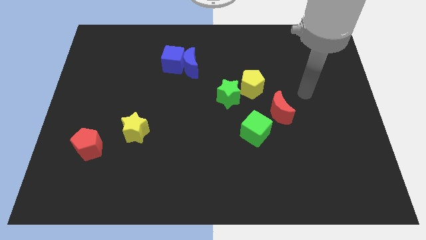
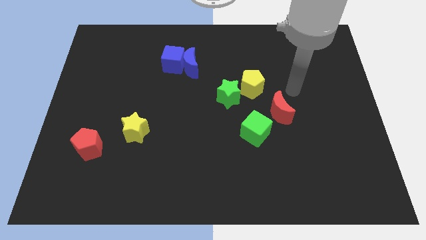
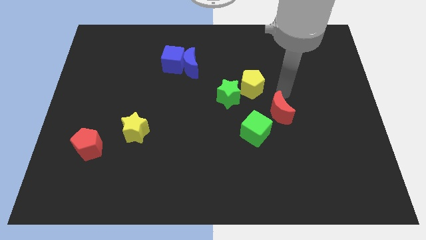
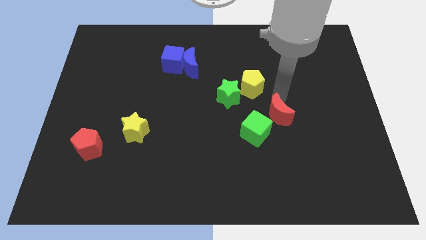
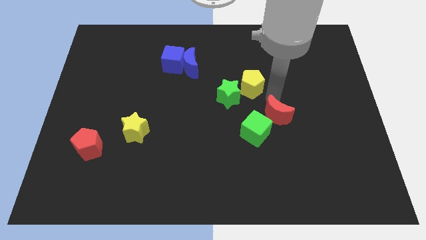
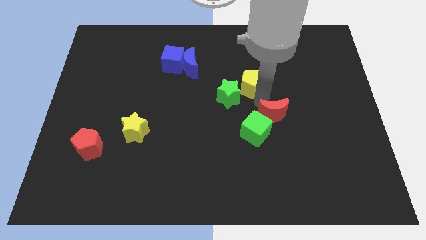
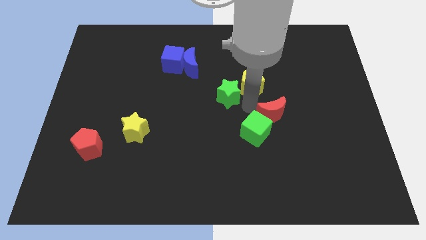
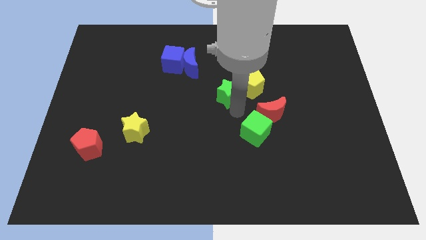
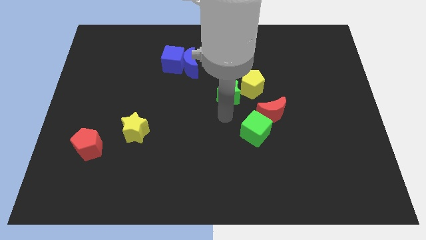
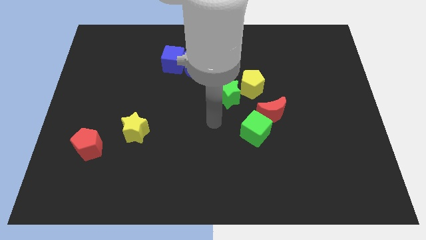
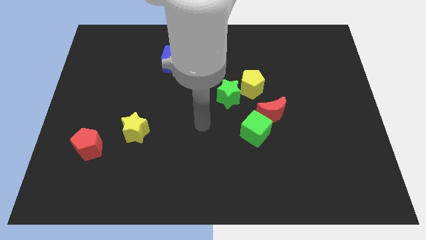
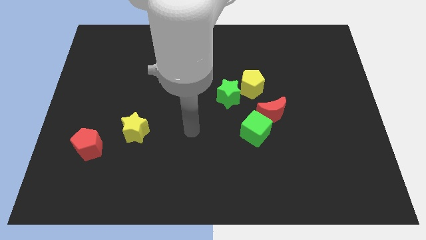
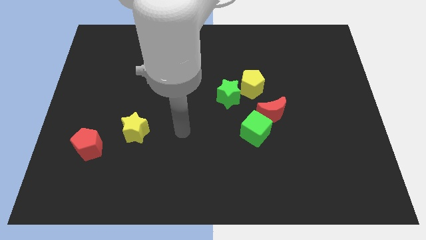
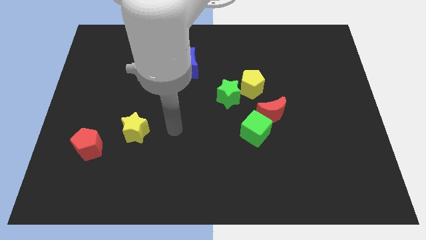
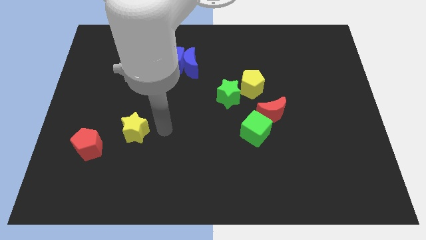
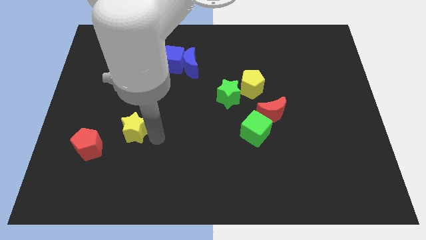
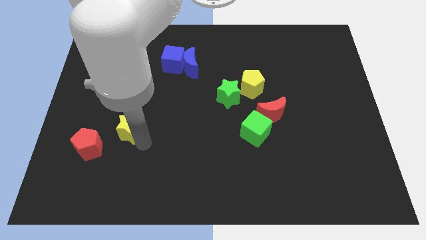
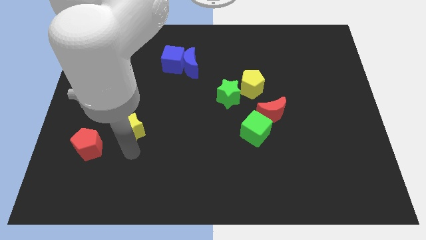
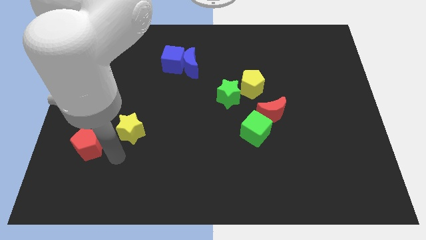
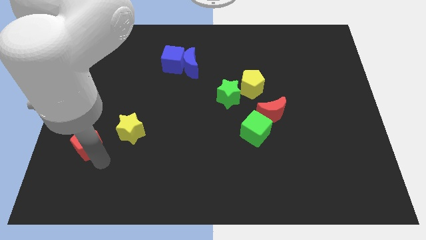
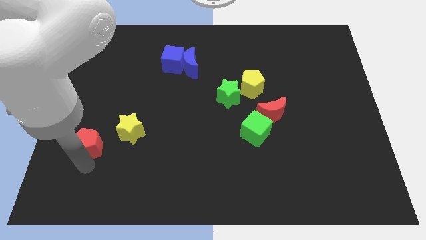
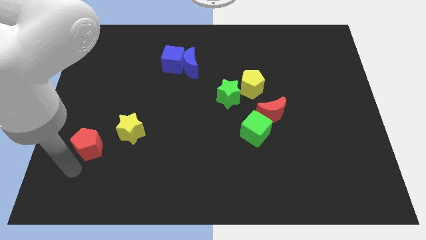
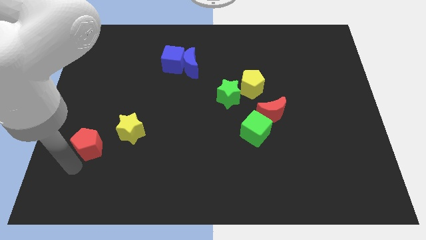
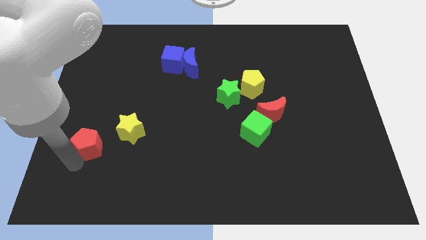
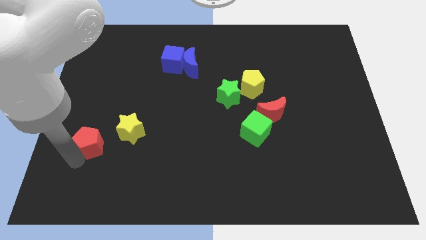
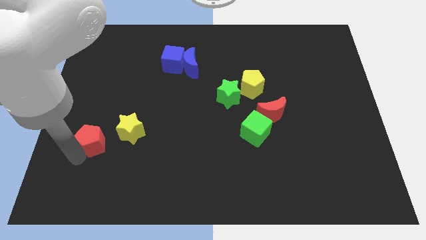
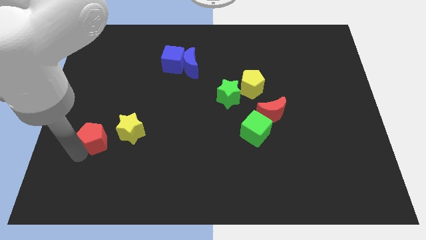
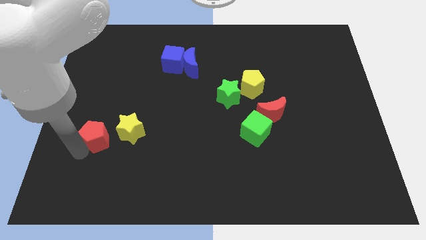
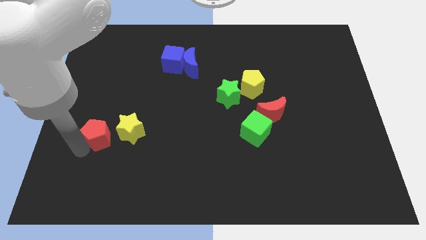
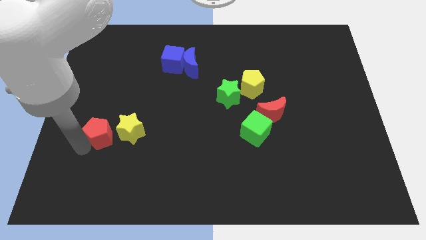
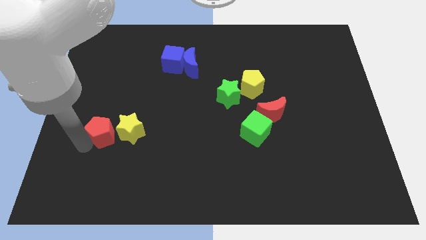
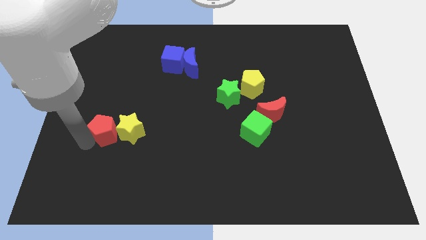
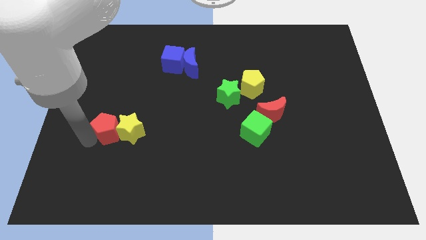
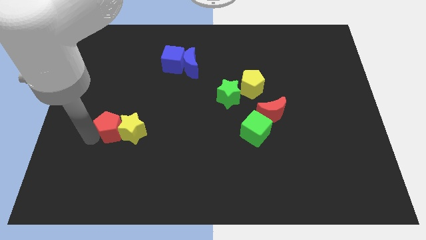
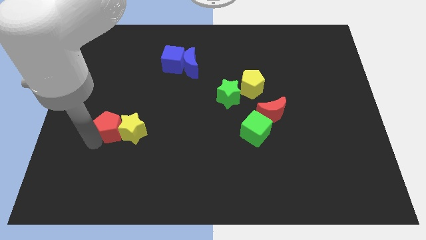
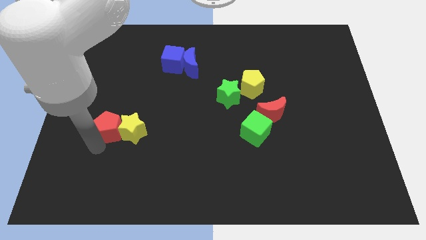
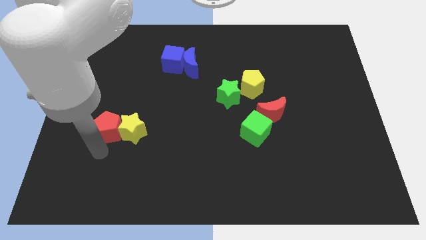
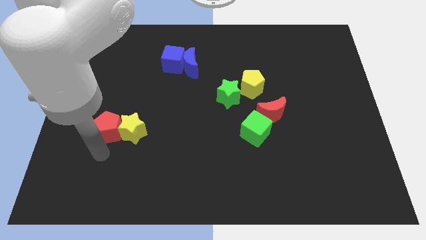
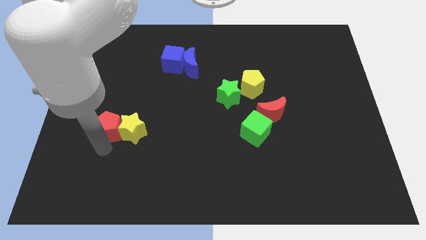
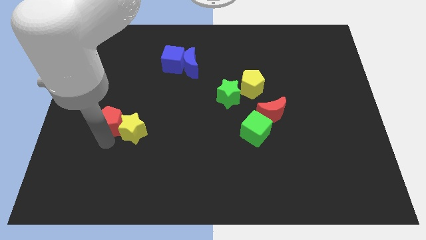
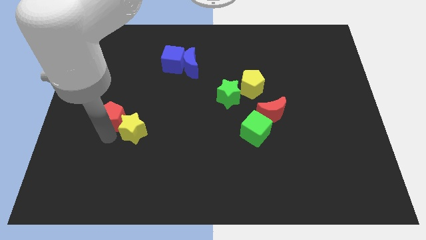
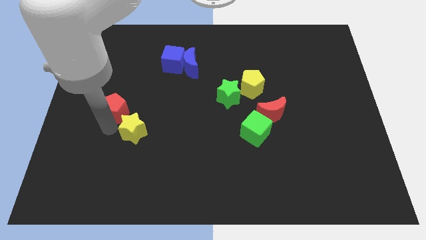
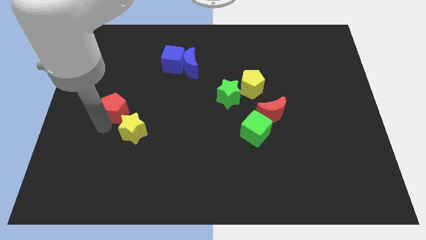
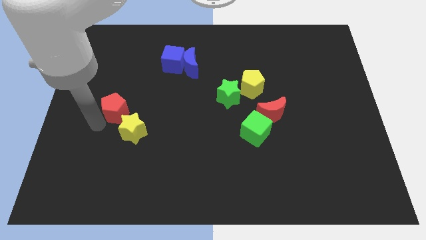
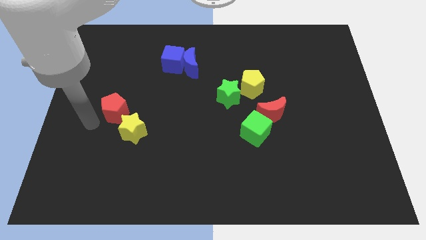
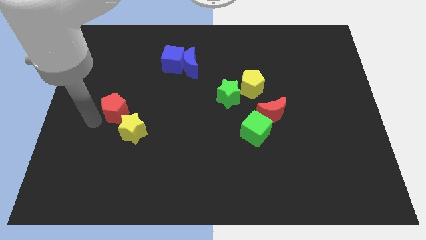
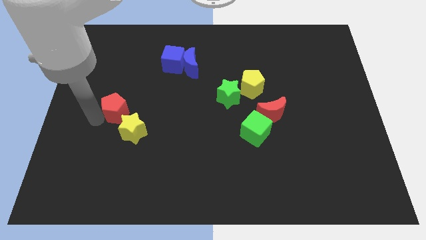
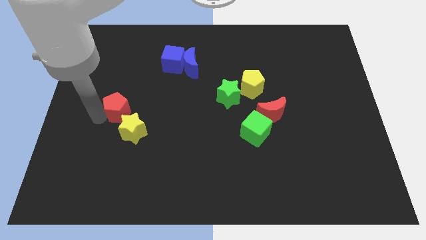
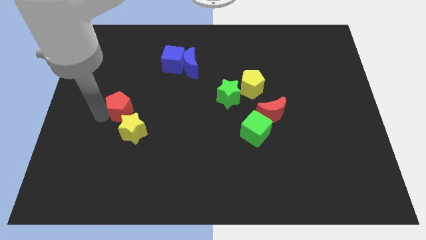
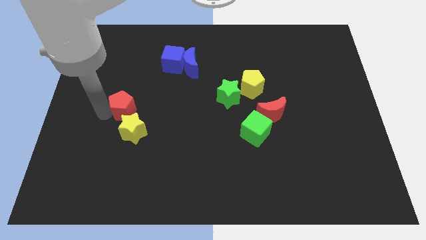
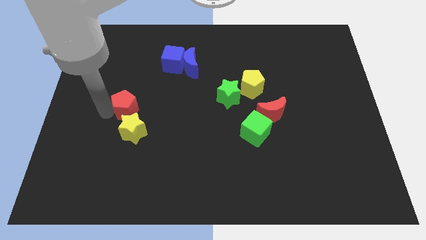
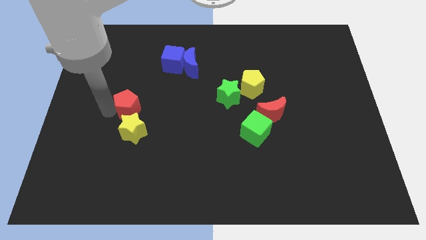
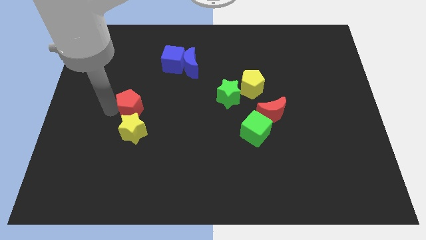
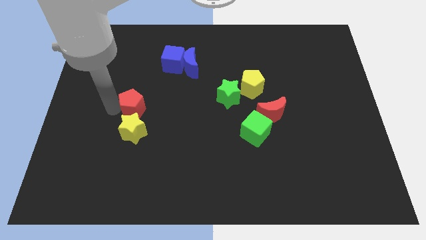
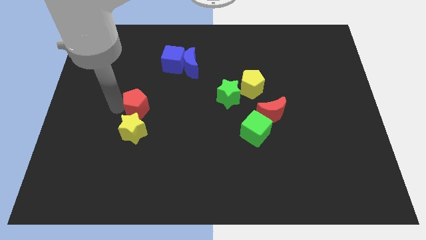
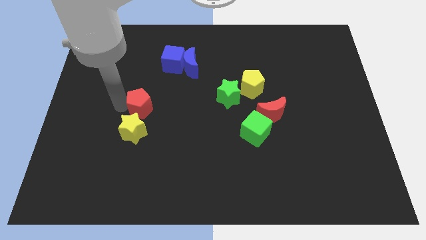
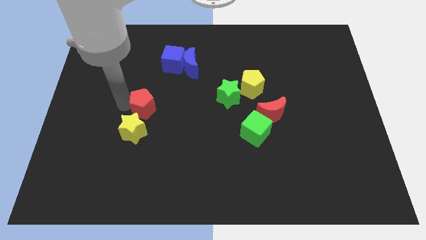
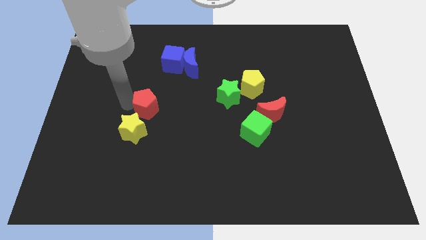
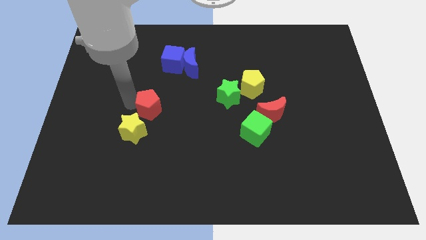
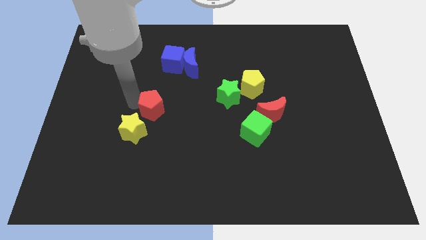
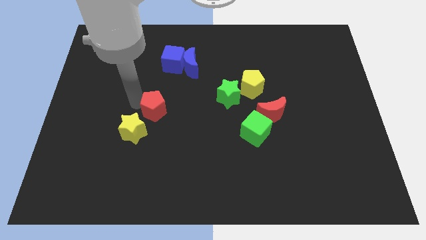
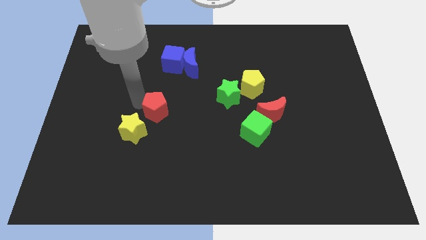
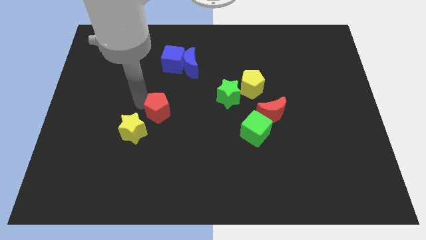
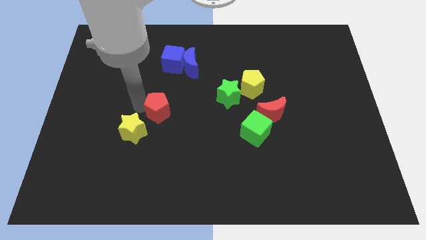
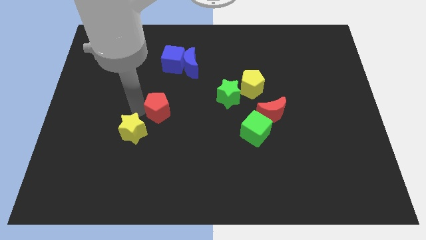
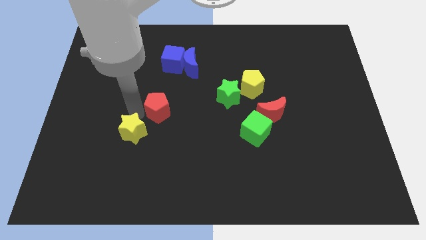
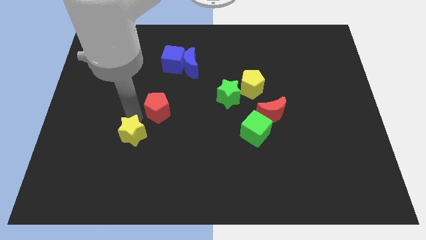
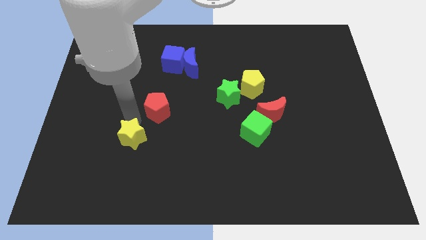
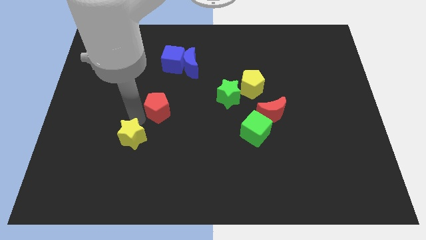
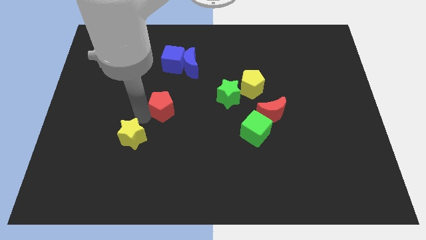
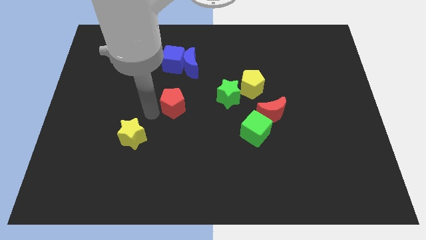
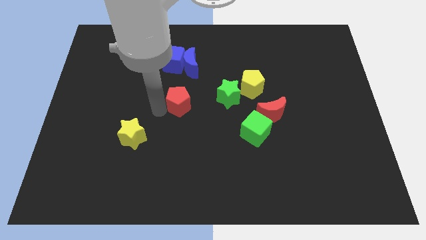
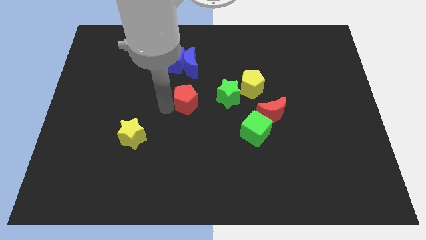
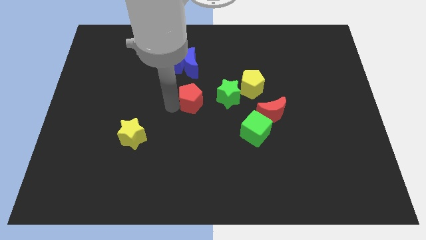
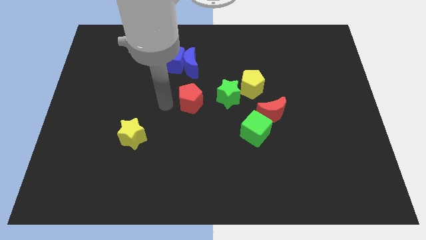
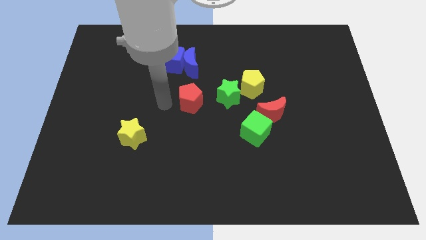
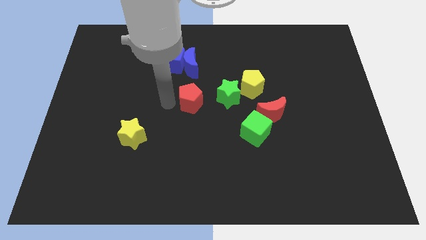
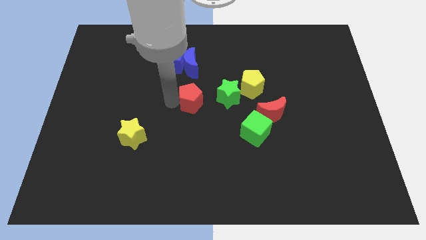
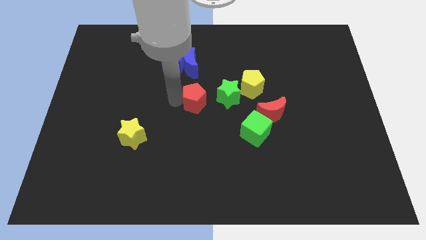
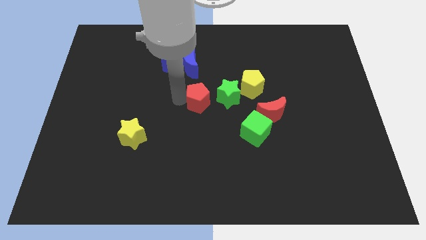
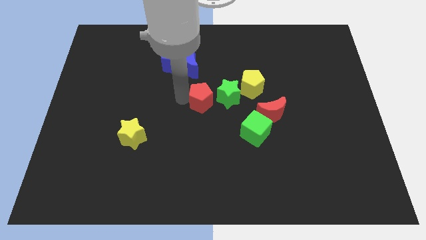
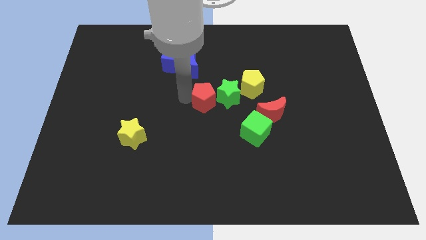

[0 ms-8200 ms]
move the red pentagon next to the green star
